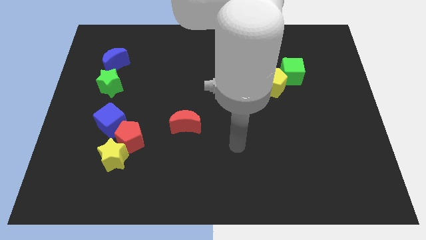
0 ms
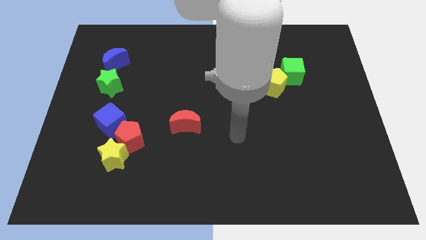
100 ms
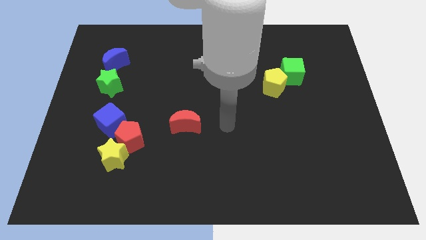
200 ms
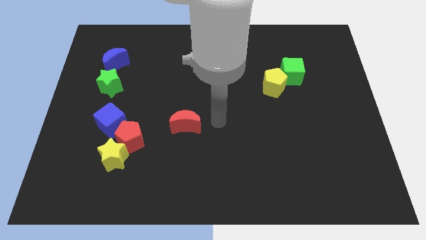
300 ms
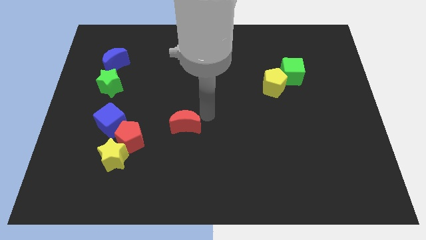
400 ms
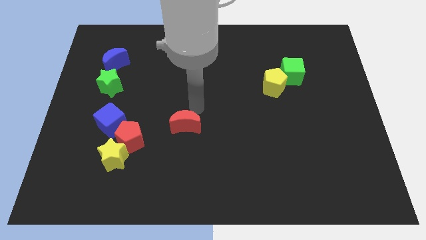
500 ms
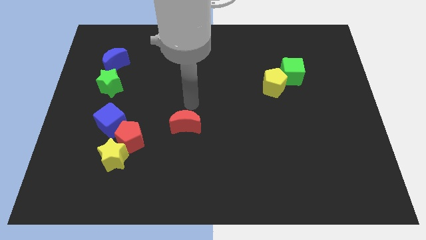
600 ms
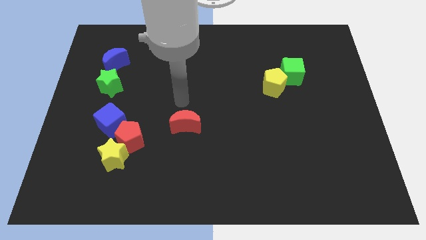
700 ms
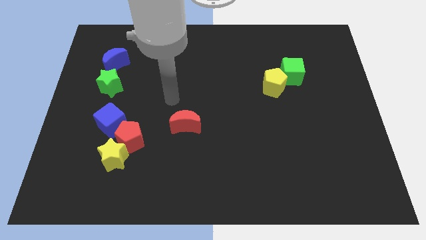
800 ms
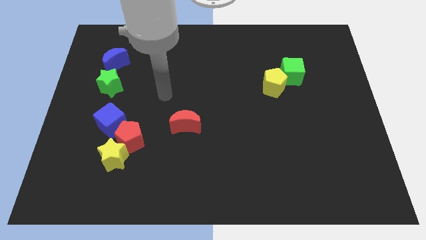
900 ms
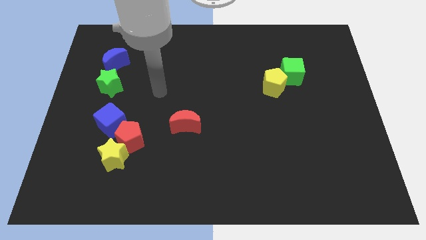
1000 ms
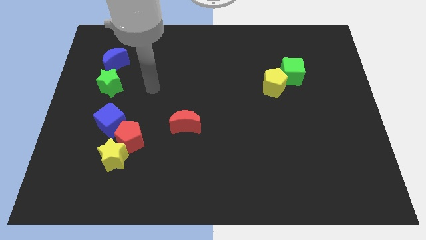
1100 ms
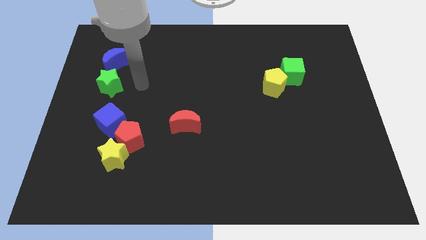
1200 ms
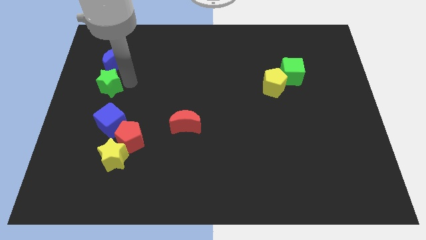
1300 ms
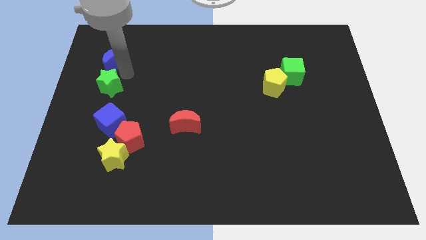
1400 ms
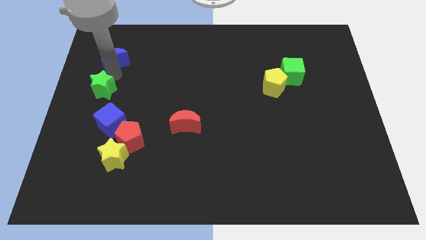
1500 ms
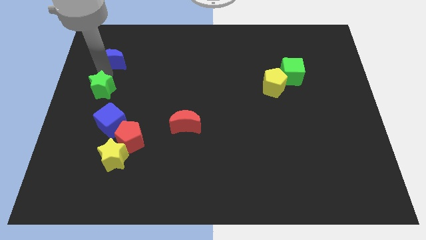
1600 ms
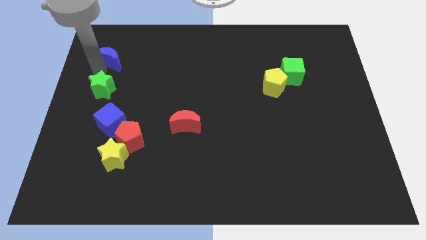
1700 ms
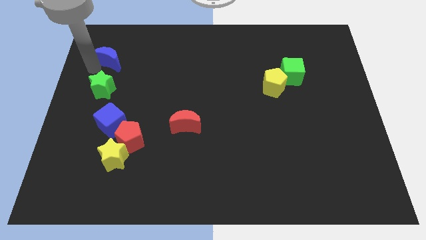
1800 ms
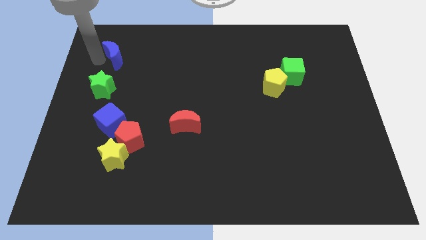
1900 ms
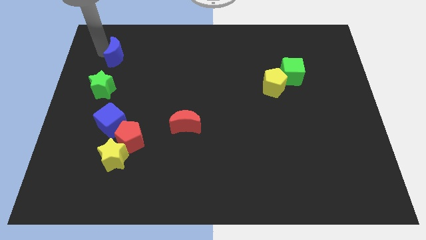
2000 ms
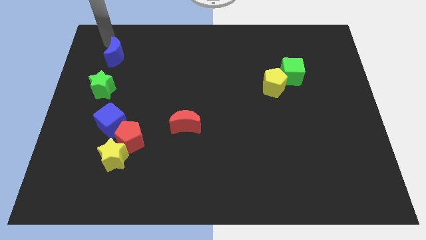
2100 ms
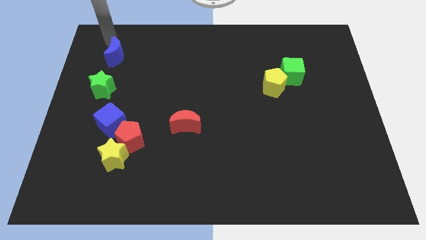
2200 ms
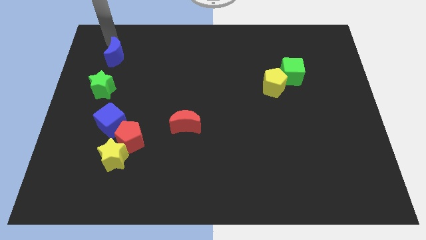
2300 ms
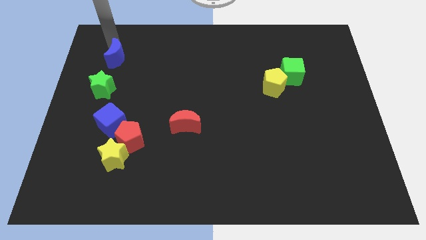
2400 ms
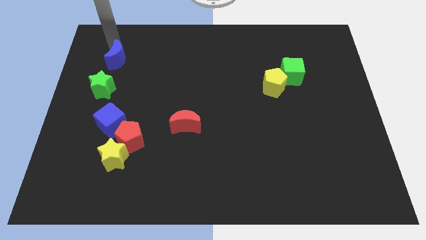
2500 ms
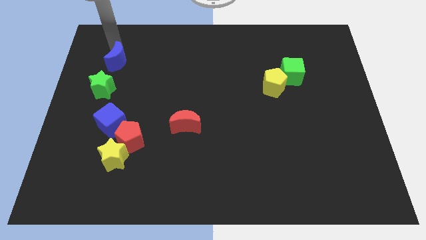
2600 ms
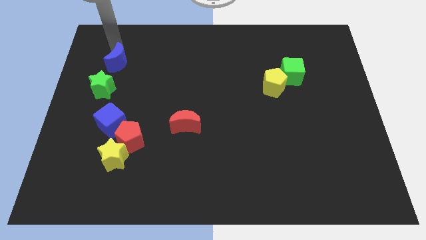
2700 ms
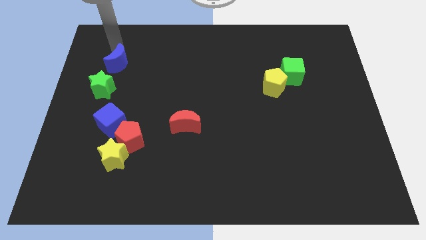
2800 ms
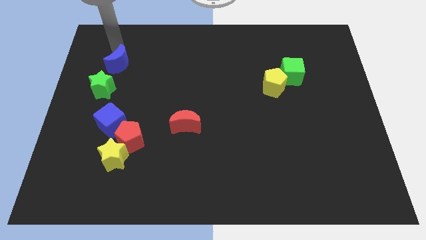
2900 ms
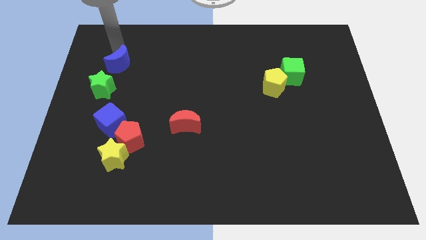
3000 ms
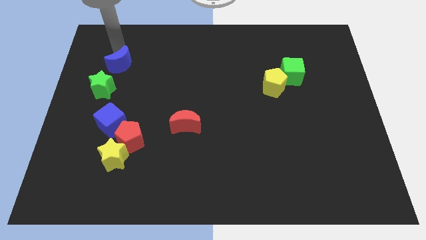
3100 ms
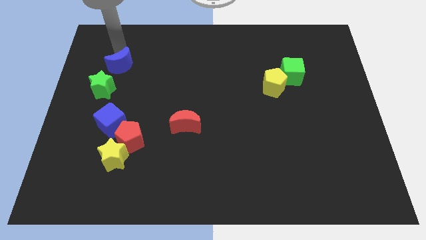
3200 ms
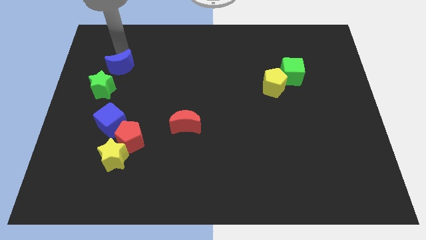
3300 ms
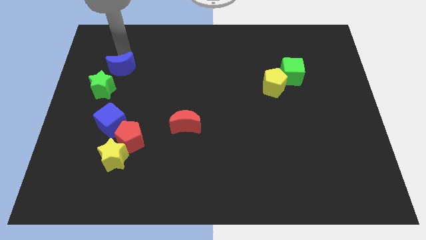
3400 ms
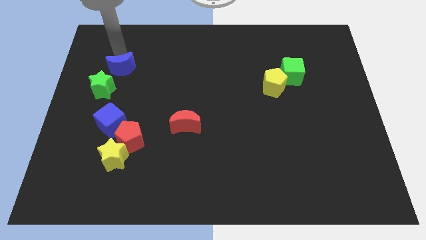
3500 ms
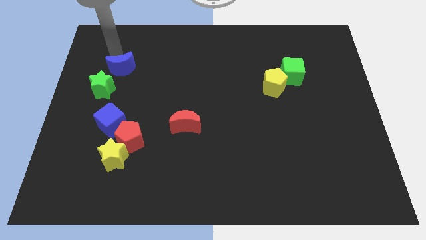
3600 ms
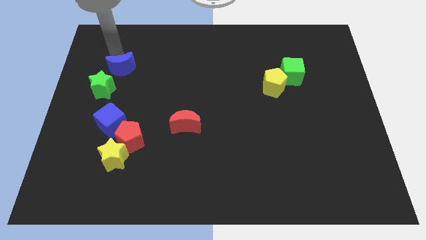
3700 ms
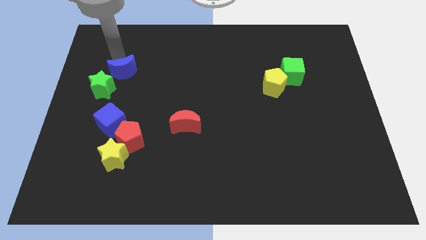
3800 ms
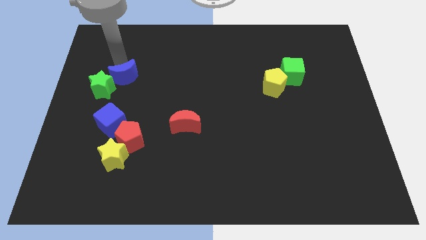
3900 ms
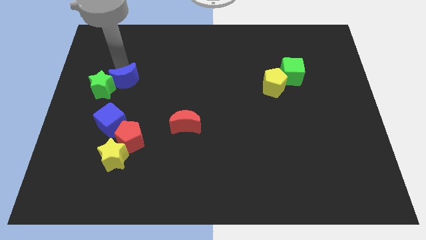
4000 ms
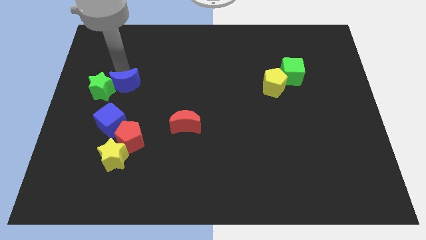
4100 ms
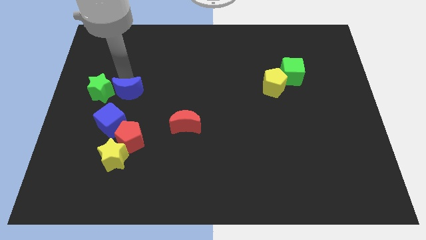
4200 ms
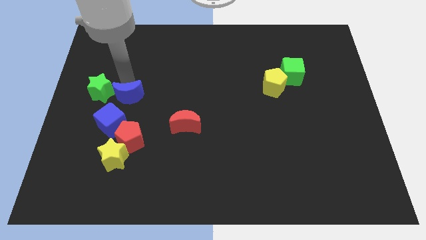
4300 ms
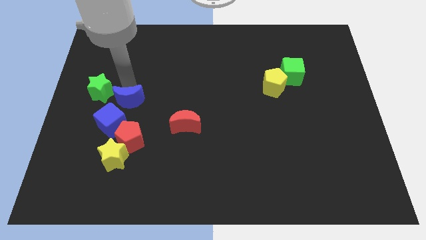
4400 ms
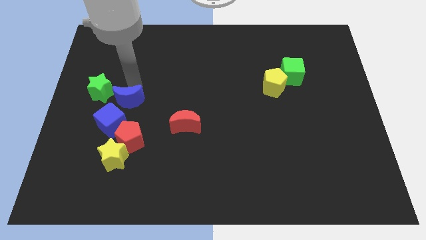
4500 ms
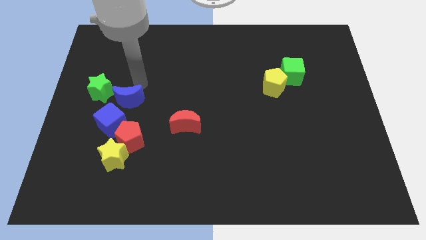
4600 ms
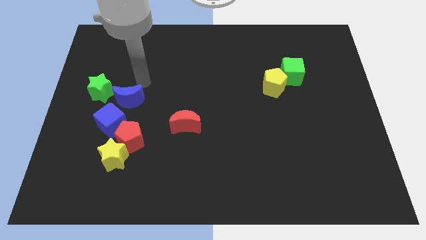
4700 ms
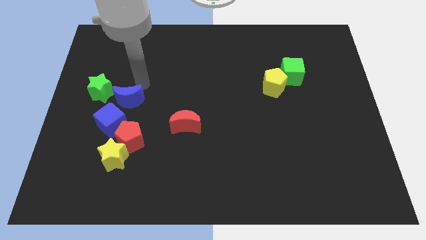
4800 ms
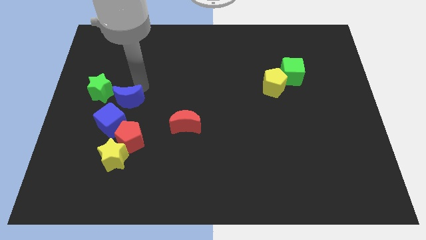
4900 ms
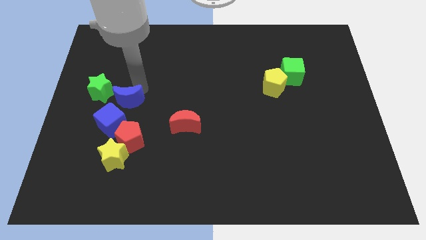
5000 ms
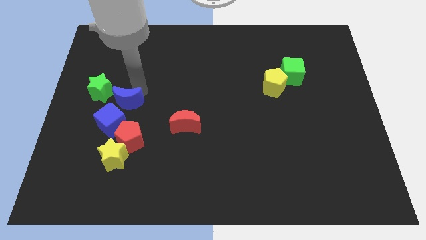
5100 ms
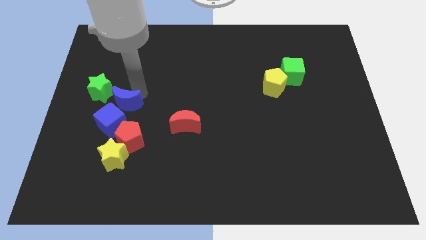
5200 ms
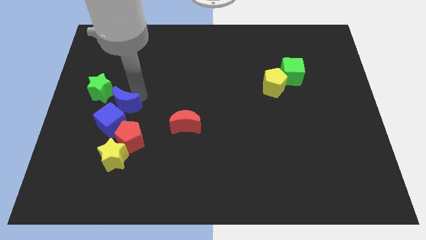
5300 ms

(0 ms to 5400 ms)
slide the blue moon next to the blue cube

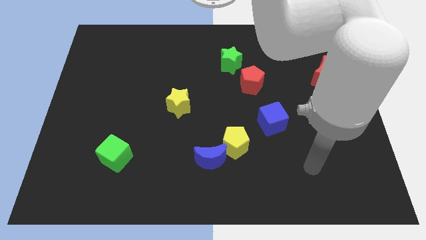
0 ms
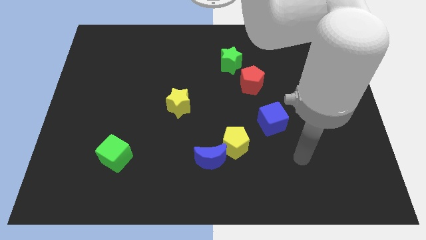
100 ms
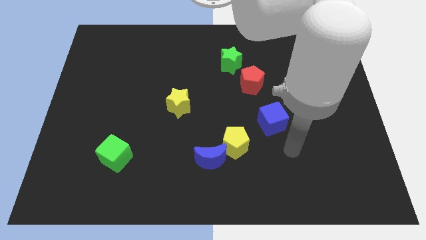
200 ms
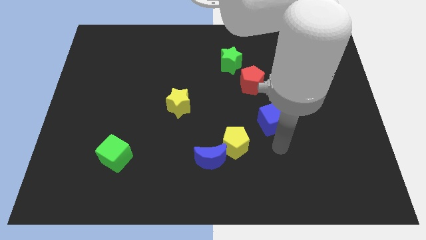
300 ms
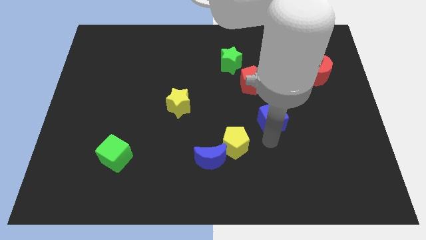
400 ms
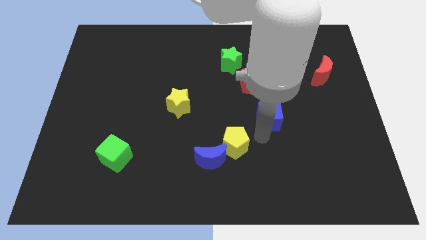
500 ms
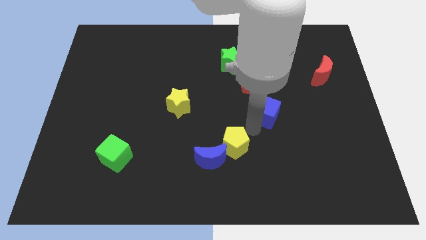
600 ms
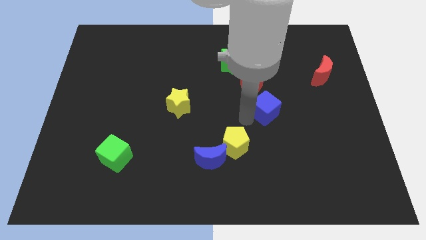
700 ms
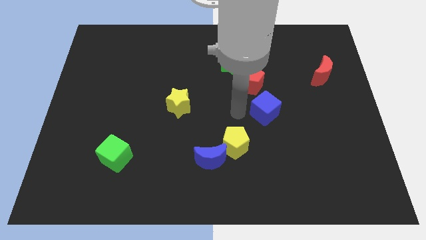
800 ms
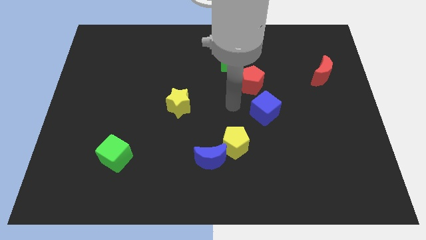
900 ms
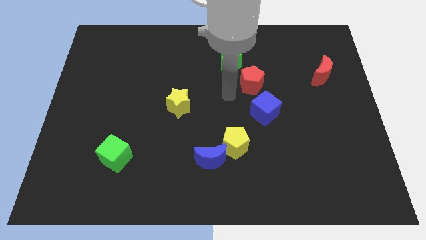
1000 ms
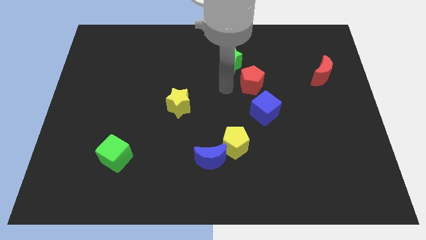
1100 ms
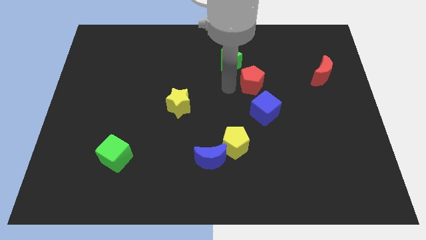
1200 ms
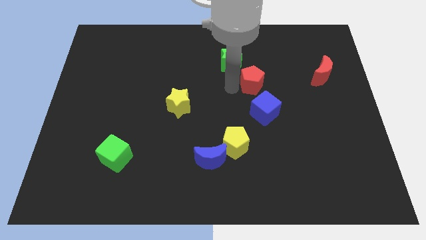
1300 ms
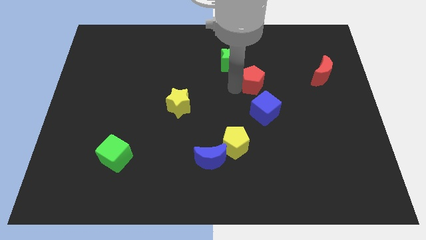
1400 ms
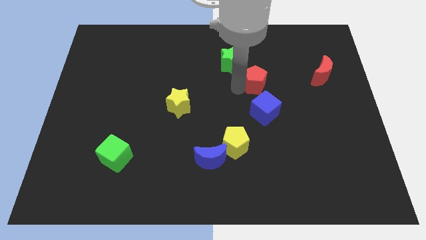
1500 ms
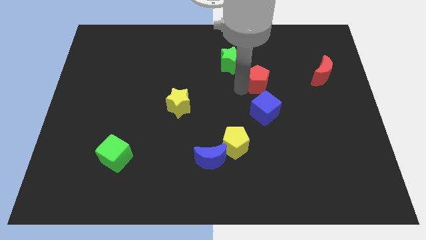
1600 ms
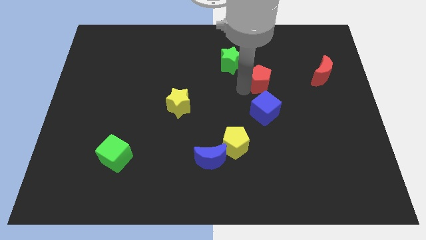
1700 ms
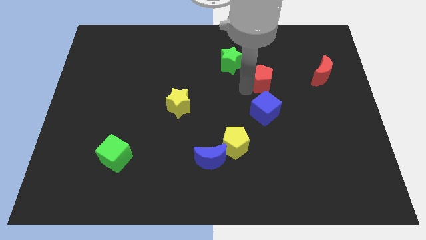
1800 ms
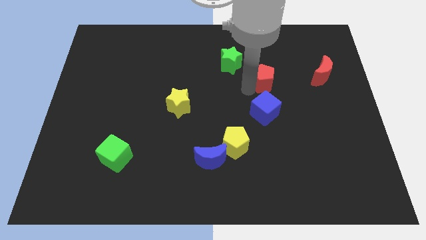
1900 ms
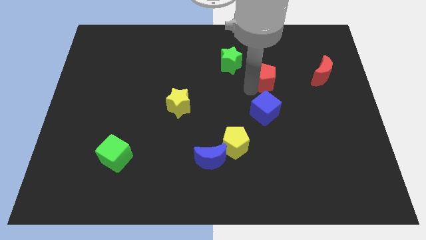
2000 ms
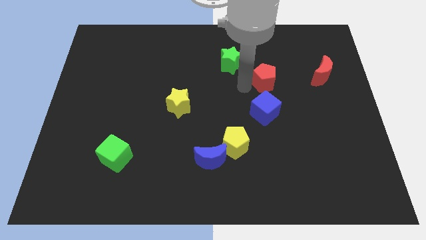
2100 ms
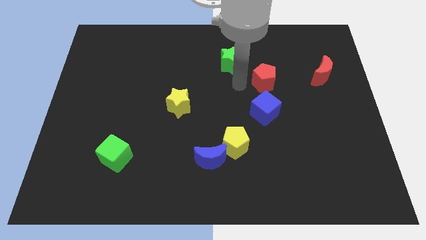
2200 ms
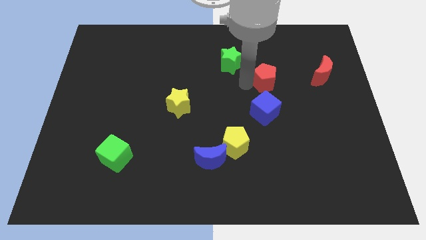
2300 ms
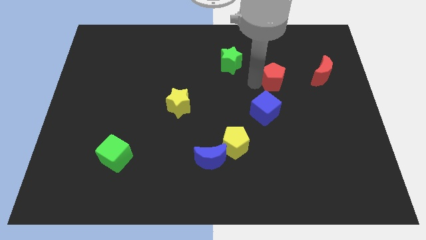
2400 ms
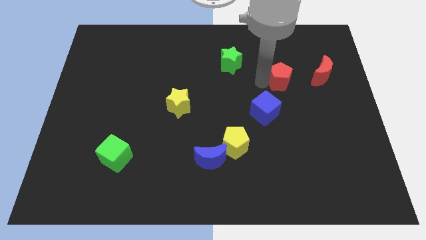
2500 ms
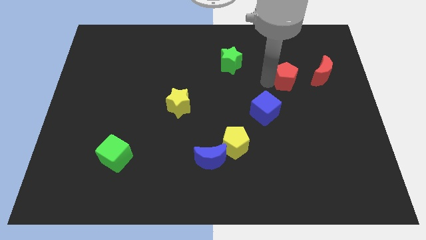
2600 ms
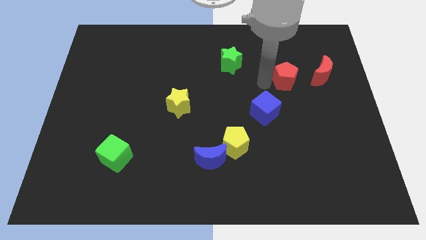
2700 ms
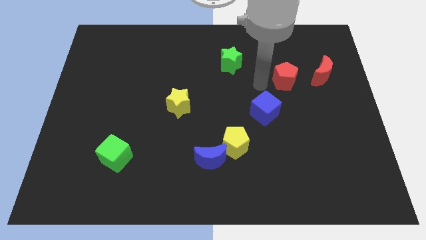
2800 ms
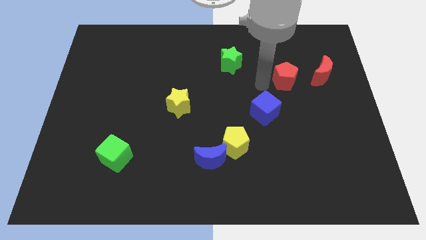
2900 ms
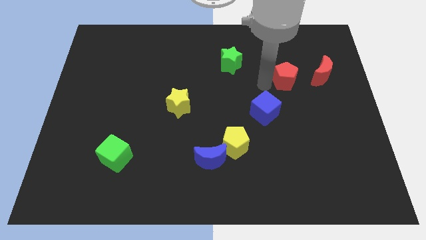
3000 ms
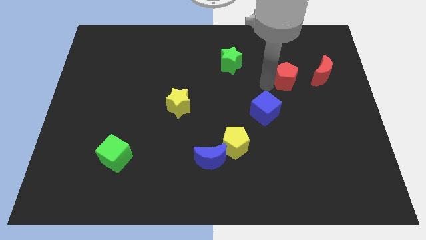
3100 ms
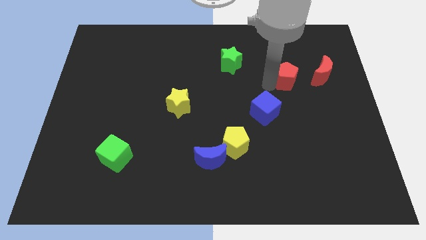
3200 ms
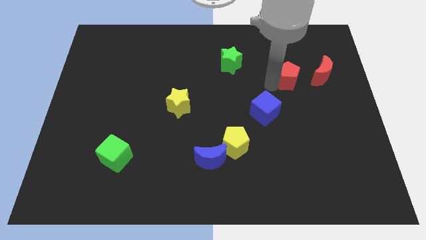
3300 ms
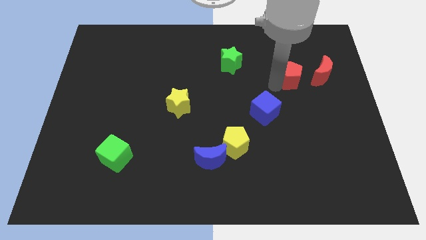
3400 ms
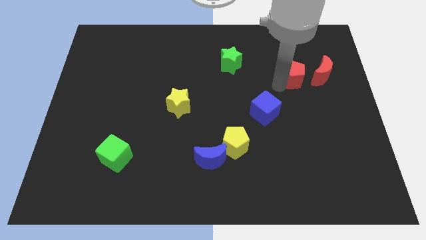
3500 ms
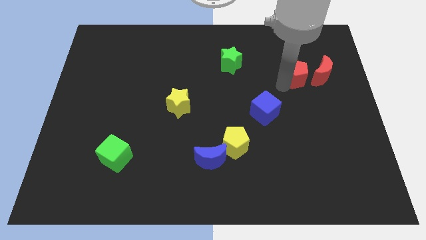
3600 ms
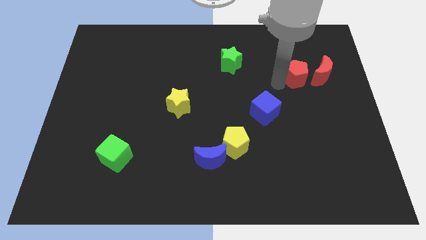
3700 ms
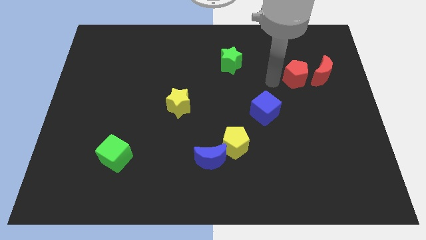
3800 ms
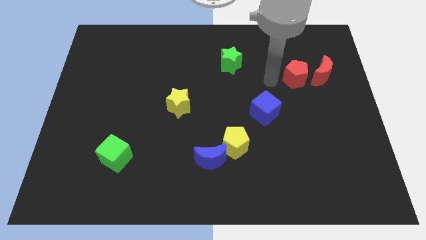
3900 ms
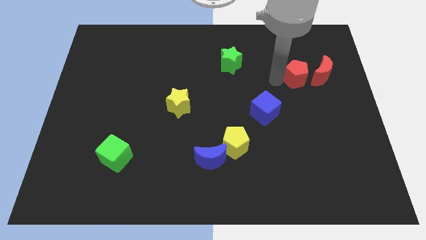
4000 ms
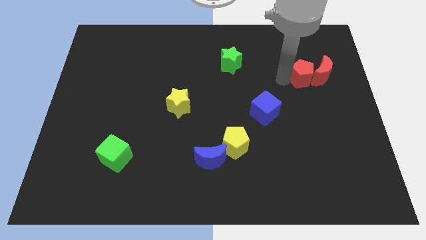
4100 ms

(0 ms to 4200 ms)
put the red pentagon towards the red moon
